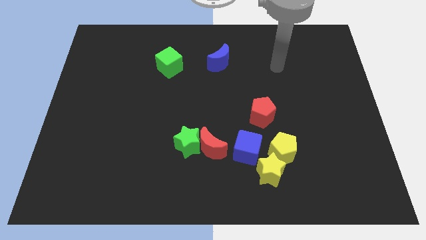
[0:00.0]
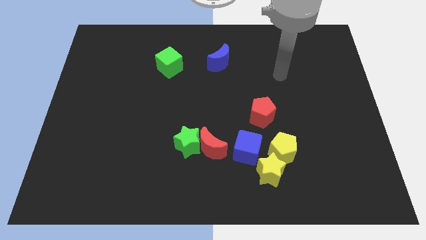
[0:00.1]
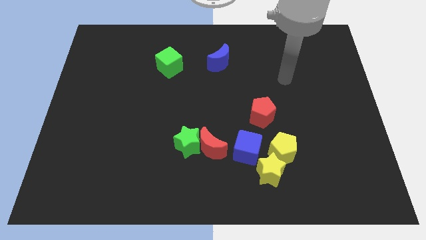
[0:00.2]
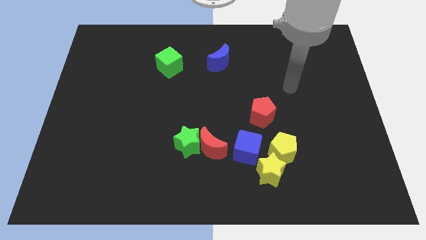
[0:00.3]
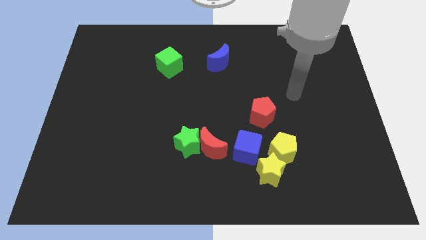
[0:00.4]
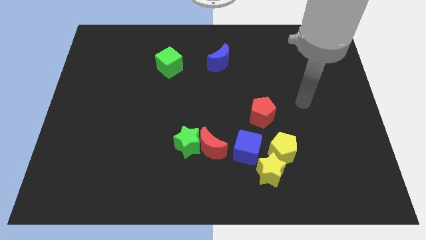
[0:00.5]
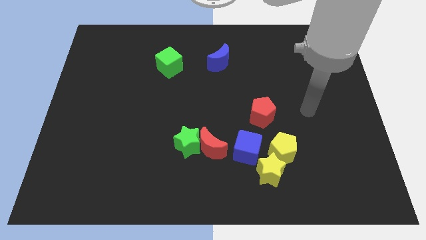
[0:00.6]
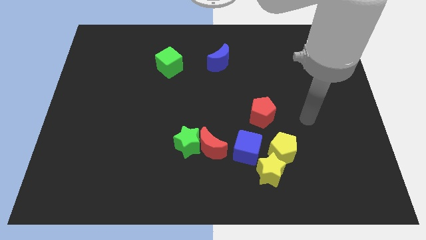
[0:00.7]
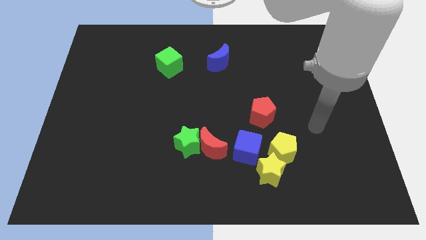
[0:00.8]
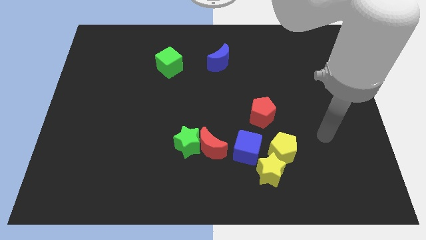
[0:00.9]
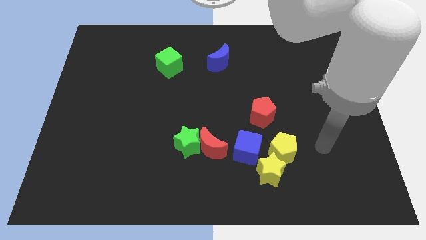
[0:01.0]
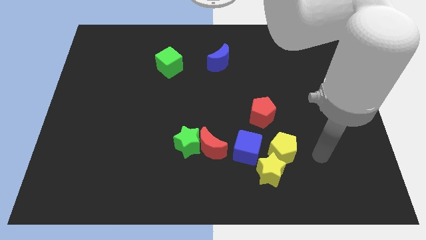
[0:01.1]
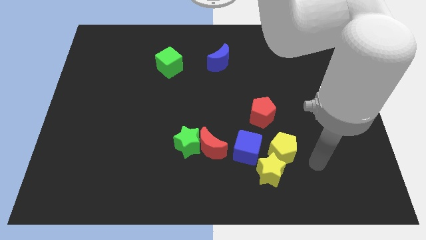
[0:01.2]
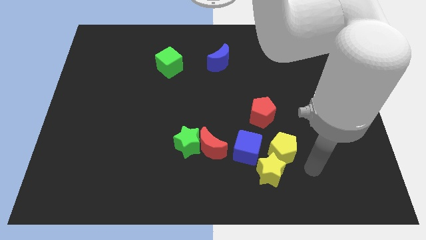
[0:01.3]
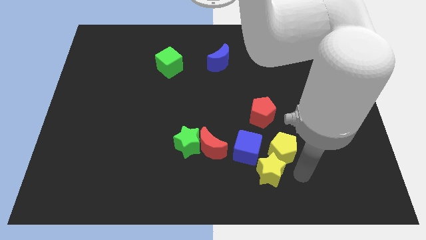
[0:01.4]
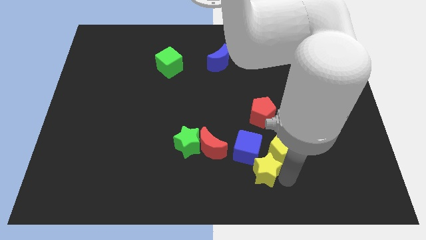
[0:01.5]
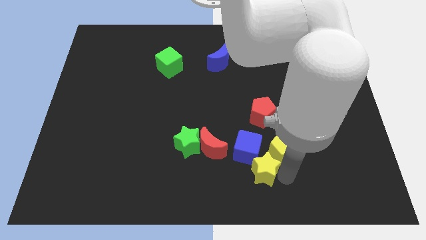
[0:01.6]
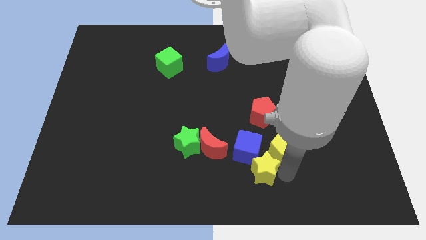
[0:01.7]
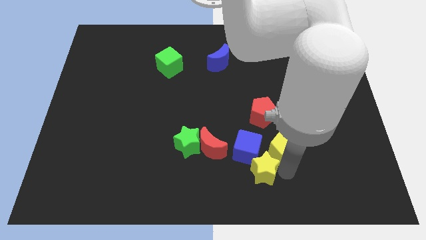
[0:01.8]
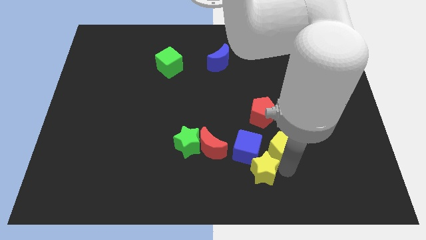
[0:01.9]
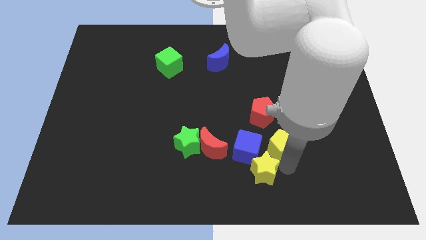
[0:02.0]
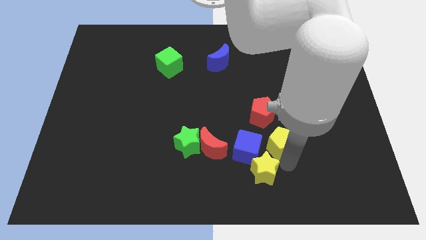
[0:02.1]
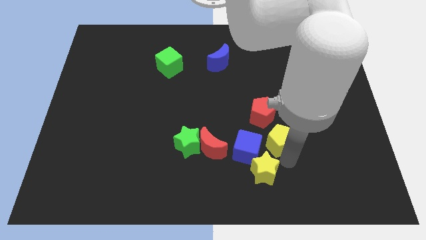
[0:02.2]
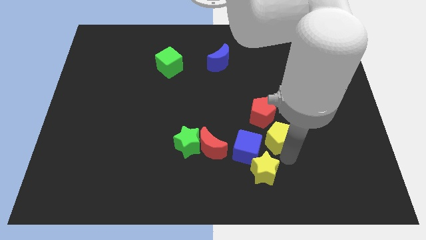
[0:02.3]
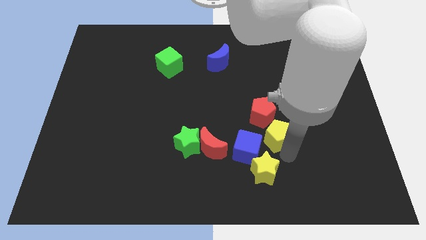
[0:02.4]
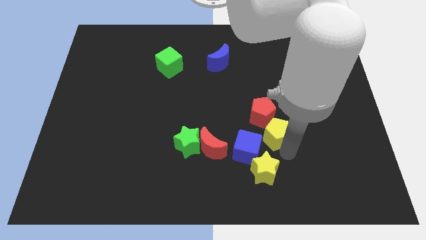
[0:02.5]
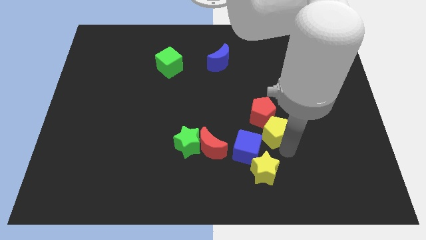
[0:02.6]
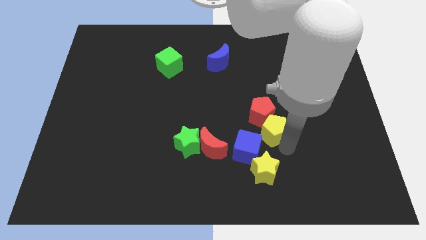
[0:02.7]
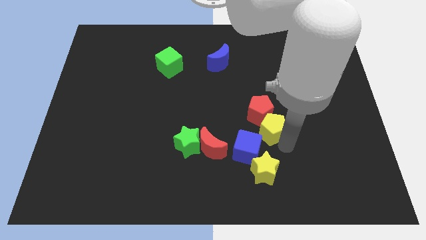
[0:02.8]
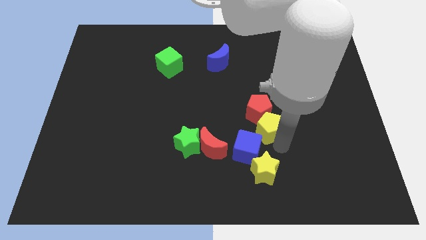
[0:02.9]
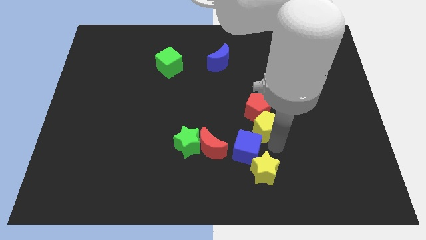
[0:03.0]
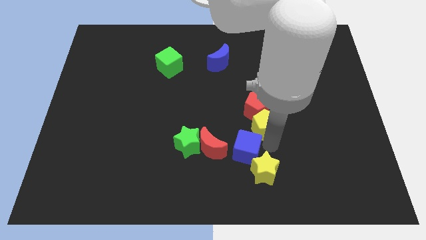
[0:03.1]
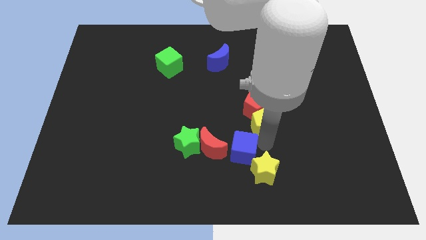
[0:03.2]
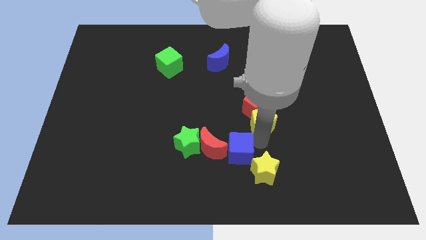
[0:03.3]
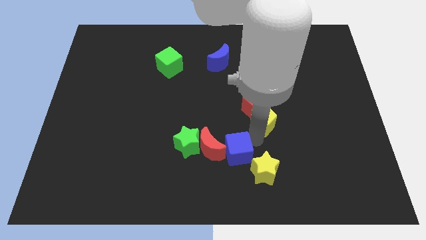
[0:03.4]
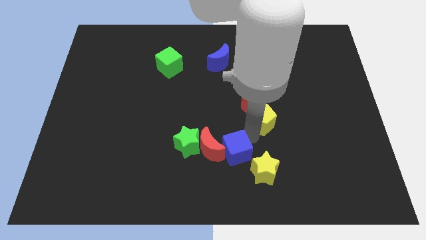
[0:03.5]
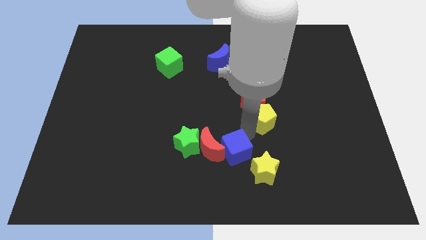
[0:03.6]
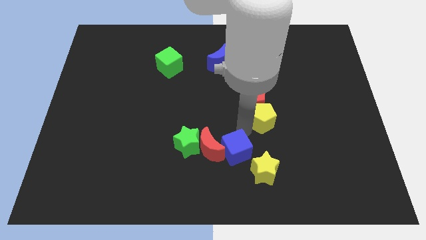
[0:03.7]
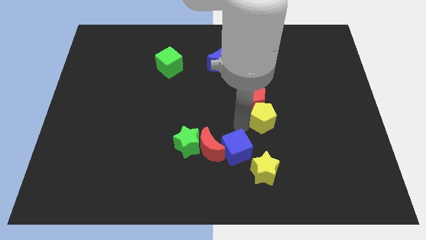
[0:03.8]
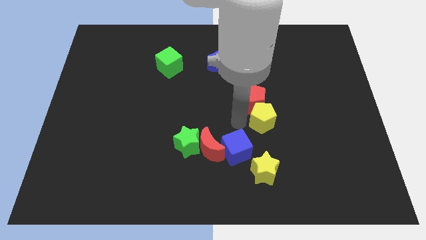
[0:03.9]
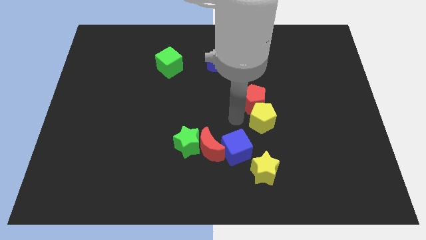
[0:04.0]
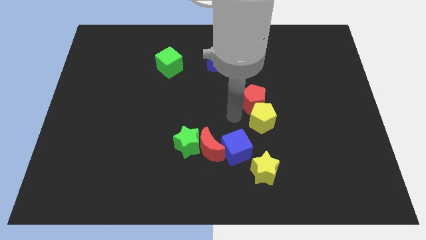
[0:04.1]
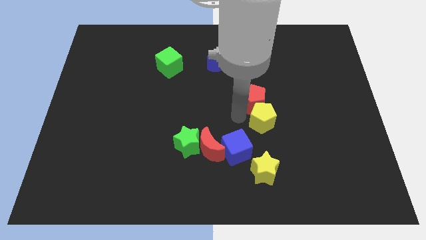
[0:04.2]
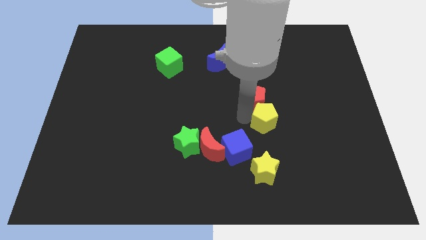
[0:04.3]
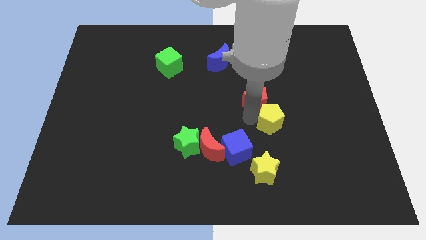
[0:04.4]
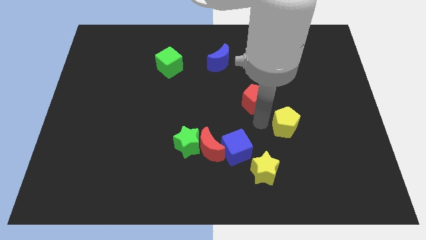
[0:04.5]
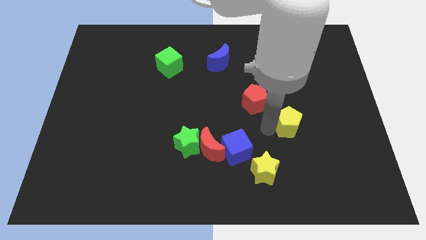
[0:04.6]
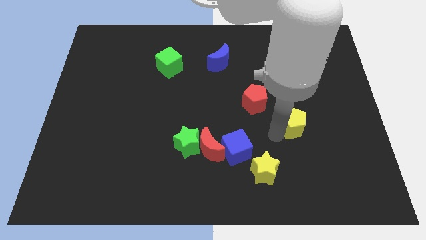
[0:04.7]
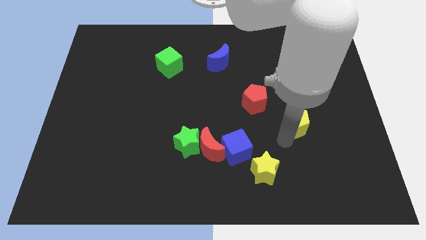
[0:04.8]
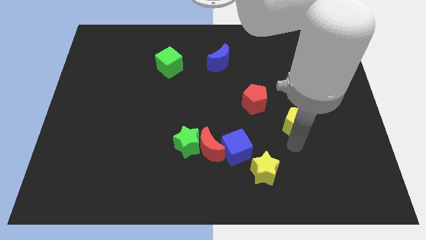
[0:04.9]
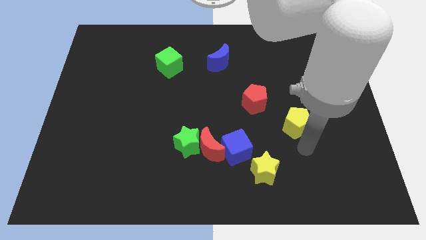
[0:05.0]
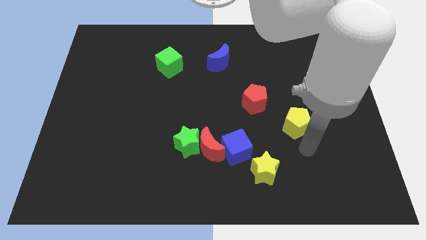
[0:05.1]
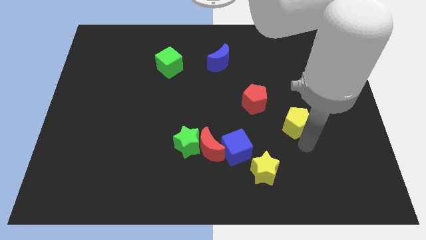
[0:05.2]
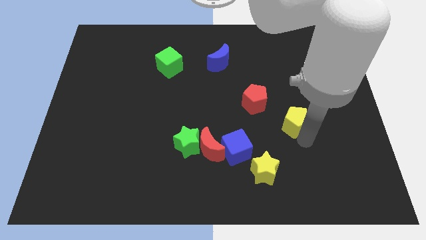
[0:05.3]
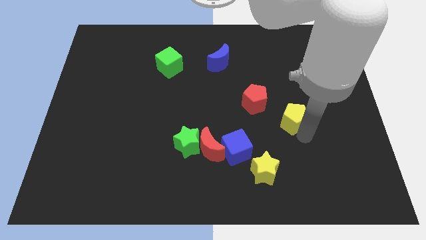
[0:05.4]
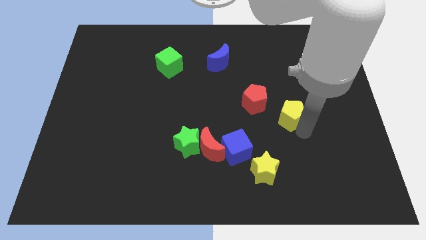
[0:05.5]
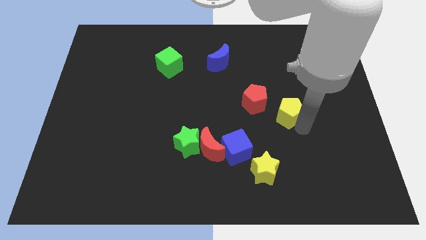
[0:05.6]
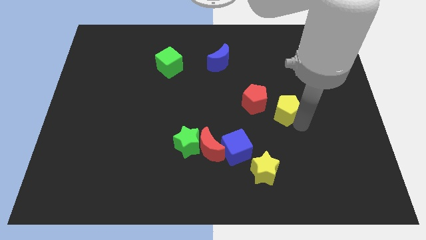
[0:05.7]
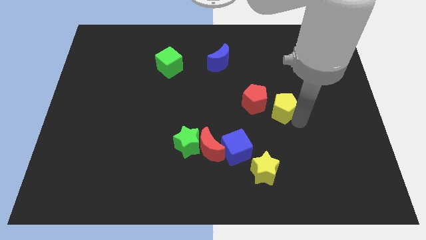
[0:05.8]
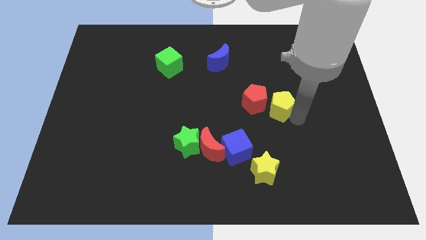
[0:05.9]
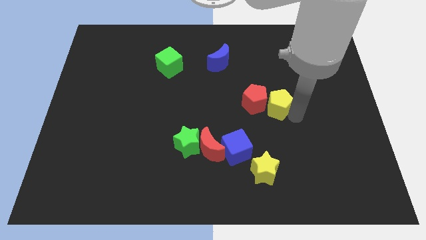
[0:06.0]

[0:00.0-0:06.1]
slide the yellow pentagon to the top right of the red pentagon

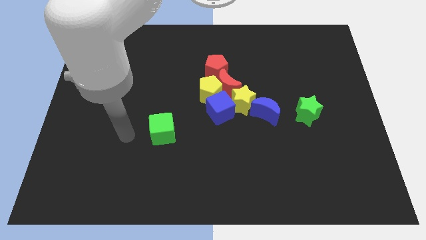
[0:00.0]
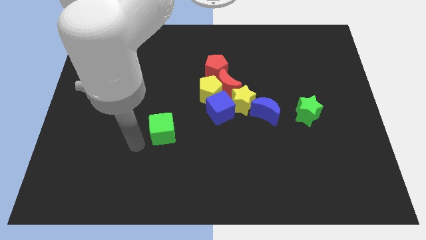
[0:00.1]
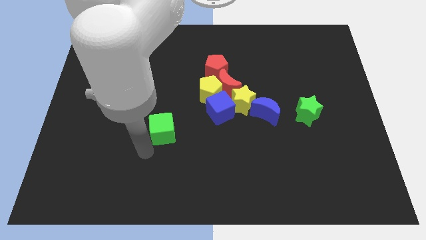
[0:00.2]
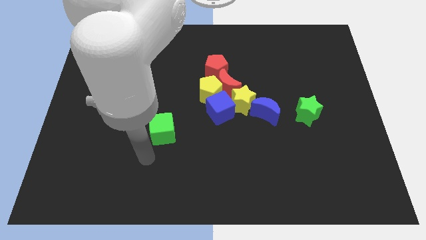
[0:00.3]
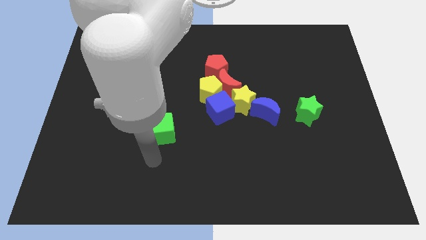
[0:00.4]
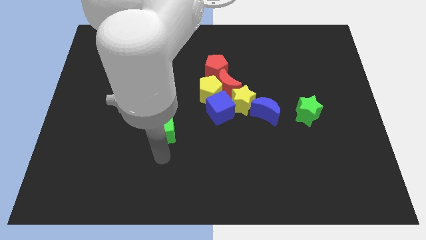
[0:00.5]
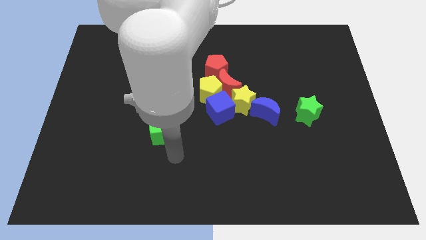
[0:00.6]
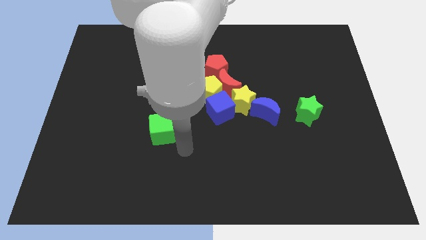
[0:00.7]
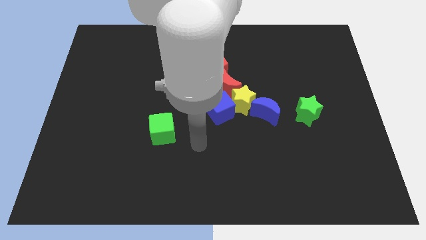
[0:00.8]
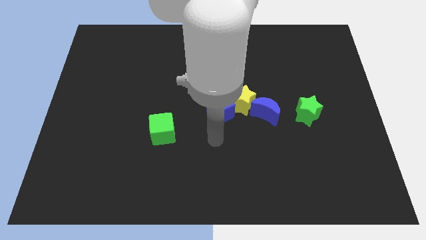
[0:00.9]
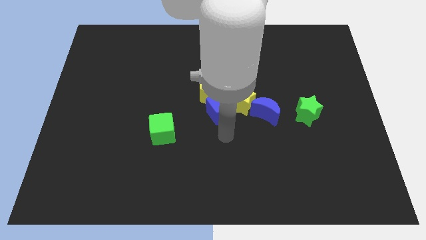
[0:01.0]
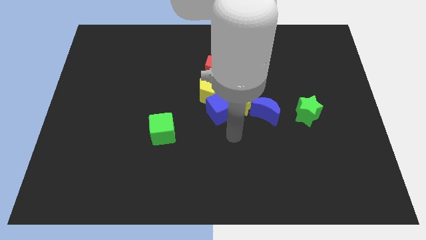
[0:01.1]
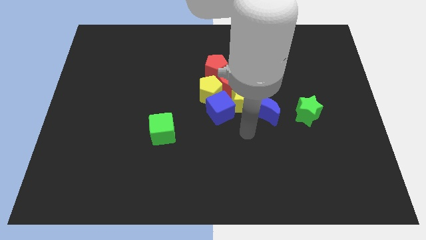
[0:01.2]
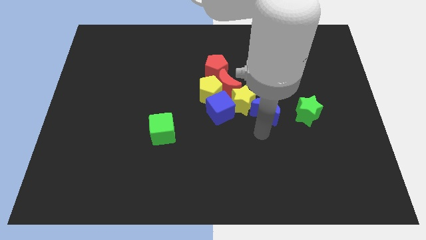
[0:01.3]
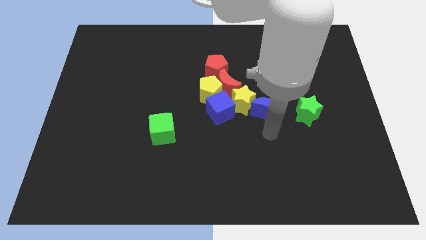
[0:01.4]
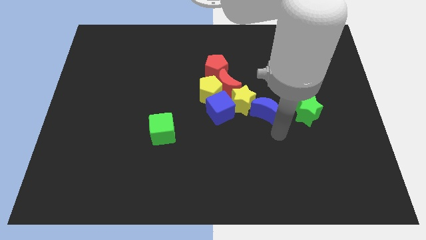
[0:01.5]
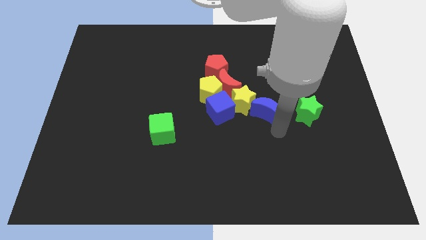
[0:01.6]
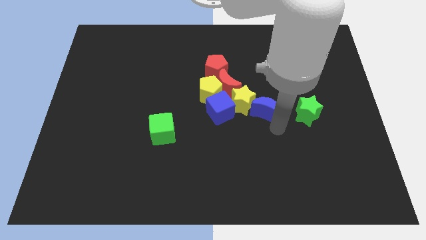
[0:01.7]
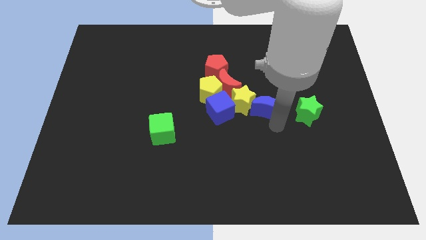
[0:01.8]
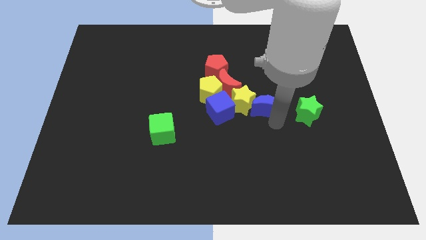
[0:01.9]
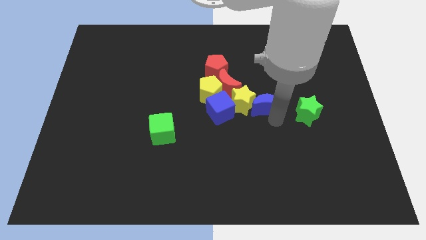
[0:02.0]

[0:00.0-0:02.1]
push the blue moon to the right of the yellow pentagon
